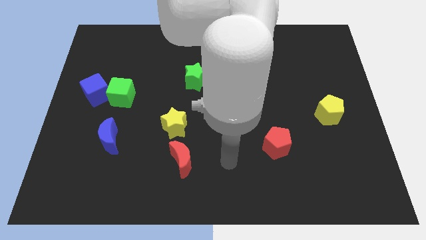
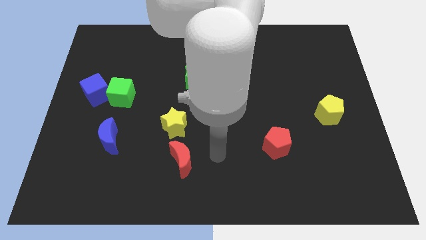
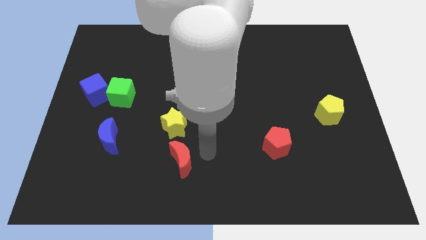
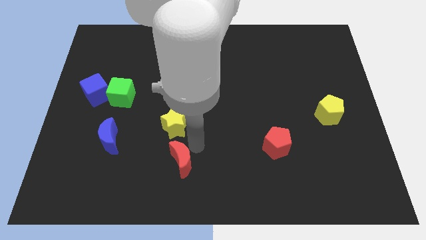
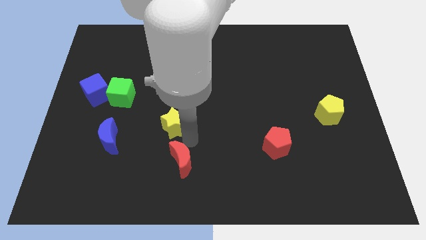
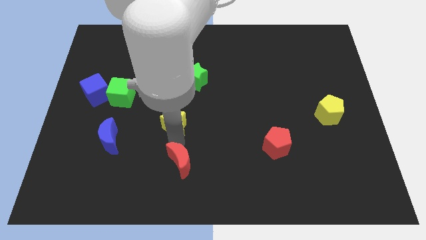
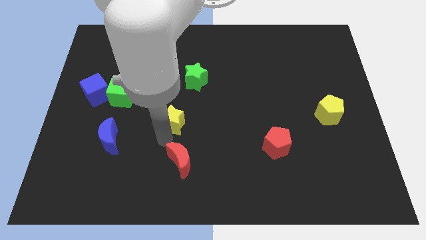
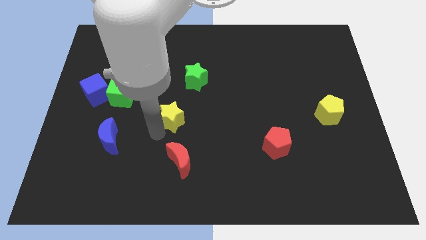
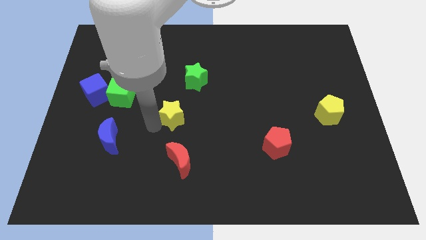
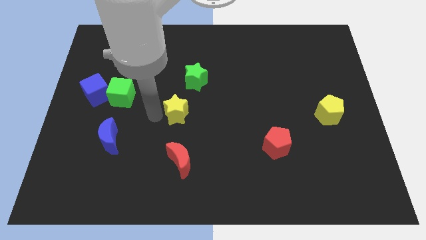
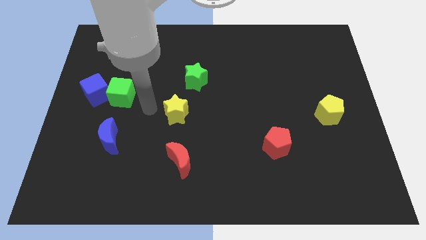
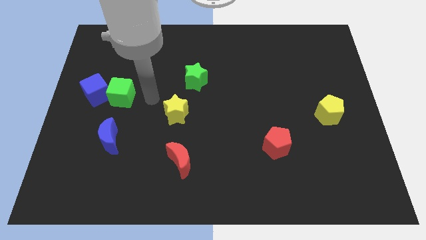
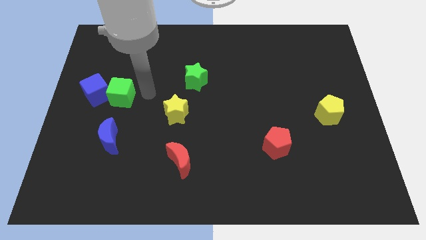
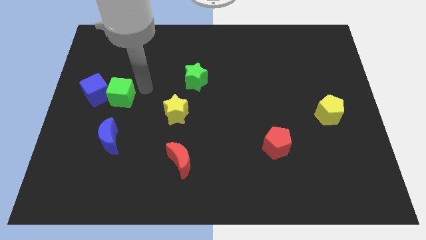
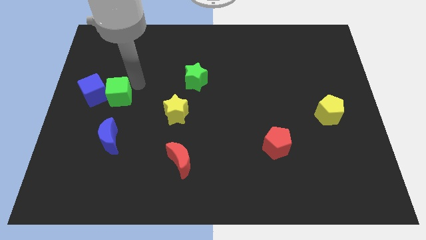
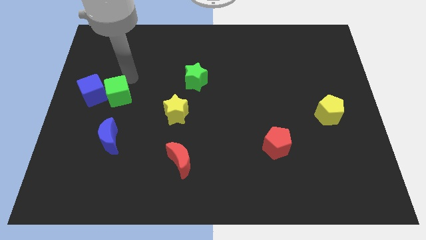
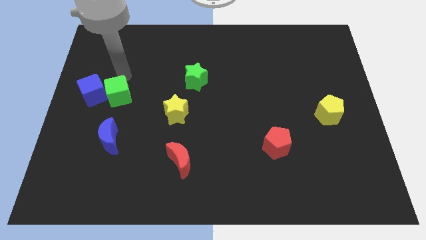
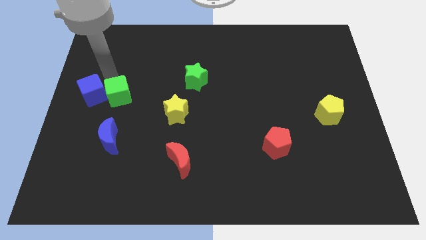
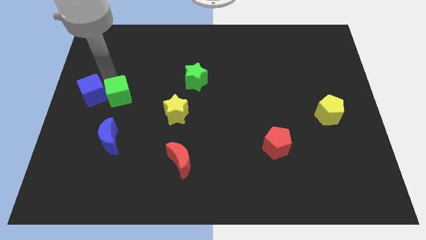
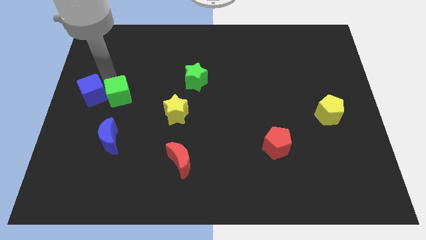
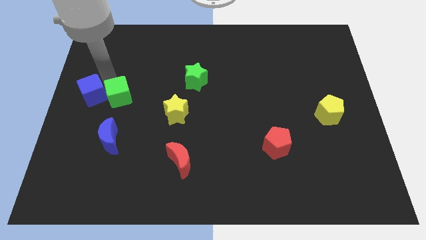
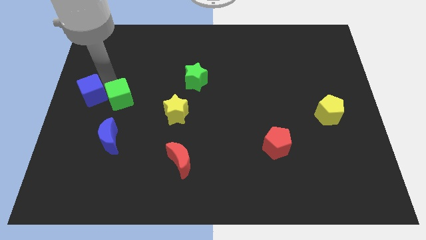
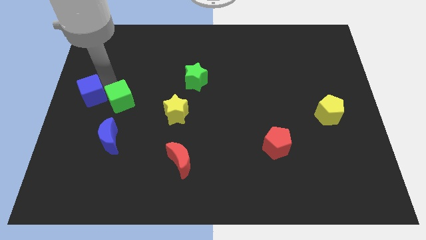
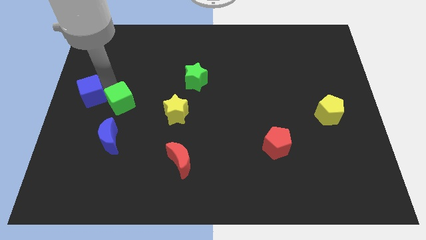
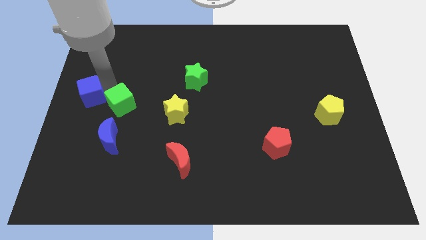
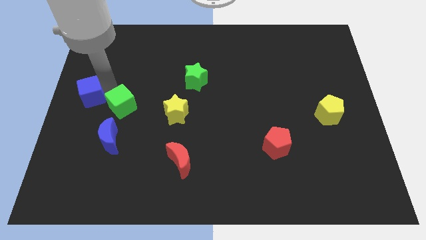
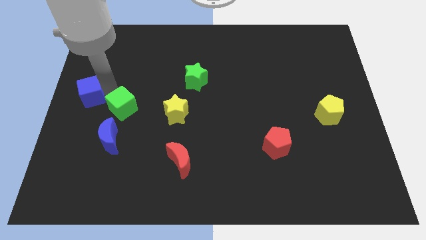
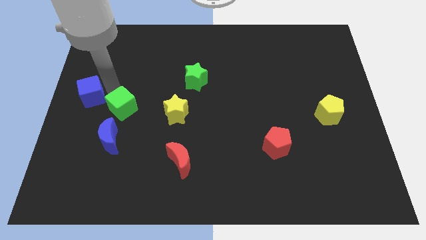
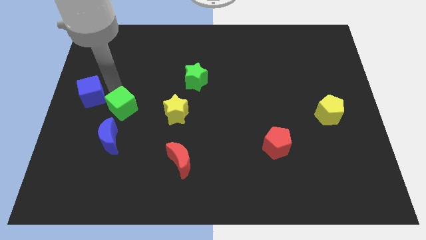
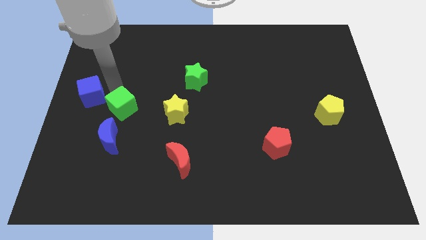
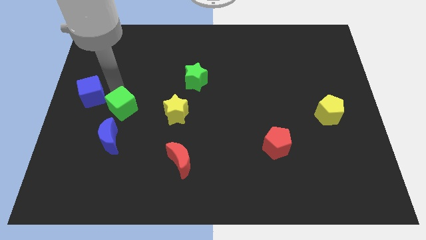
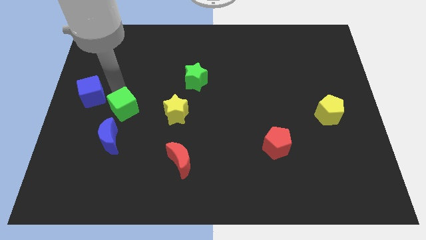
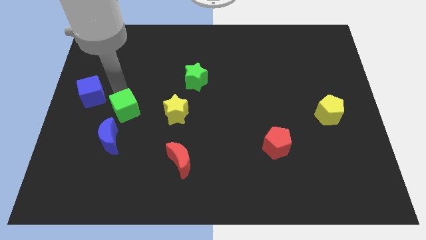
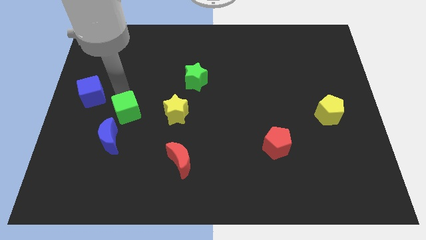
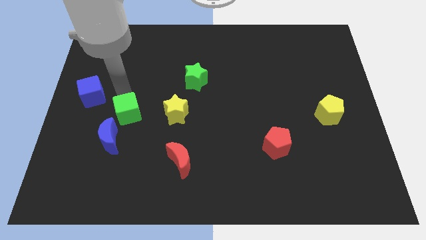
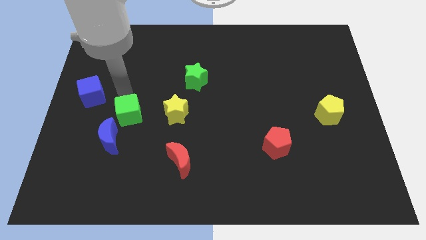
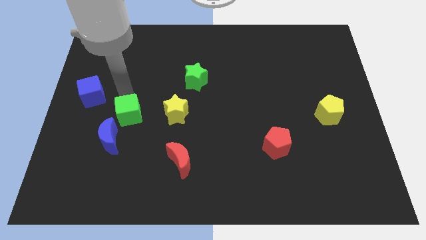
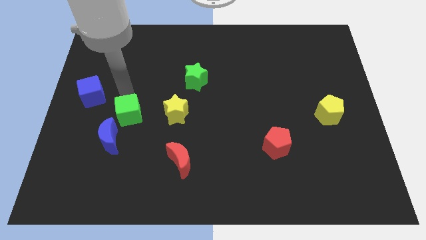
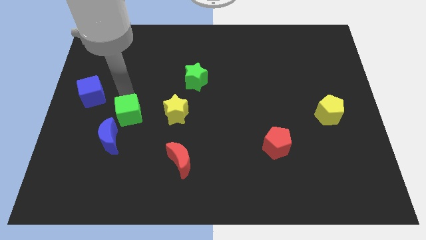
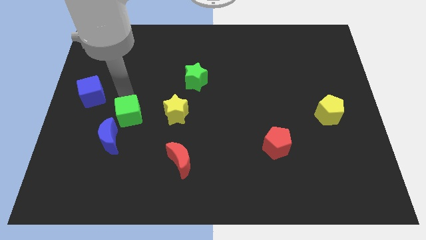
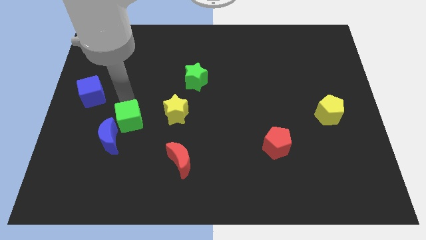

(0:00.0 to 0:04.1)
move the green cube somewhat down

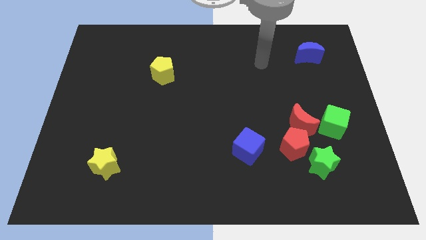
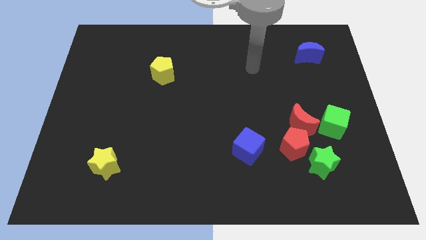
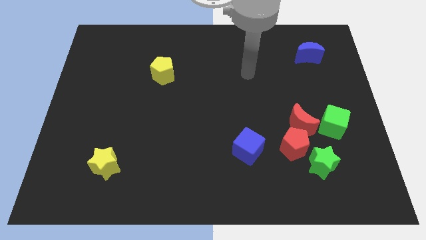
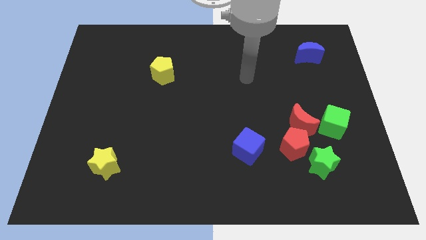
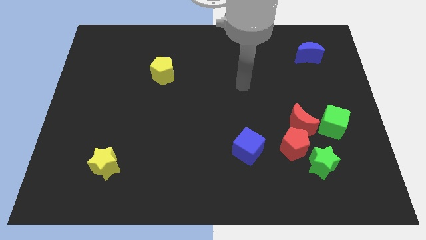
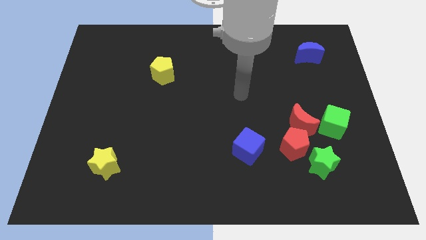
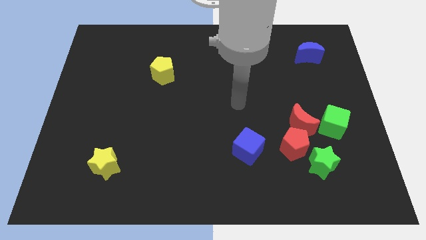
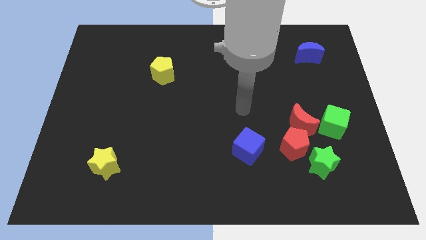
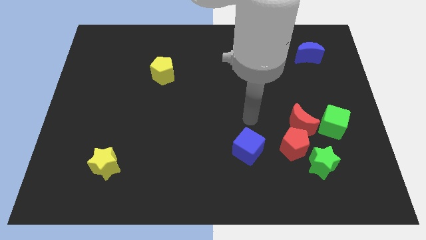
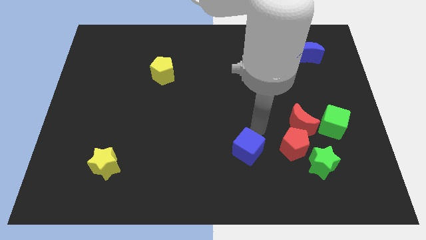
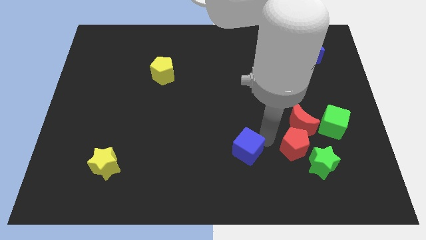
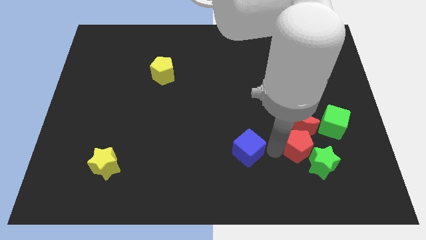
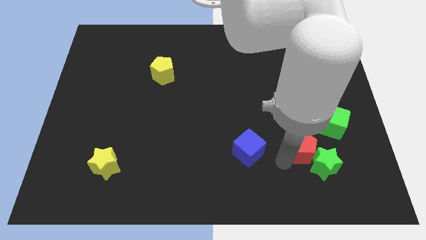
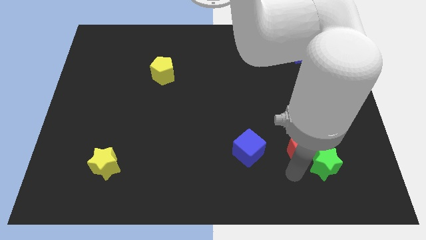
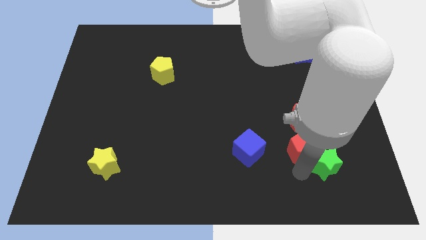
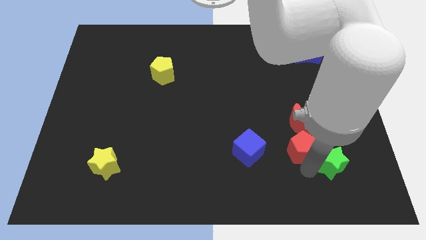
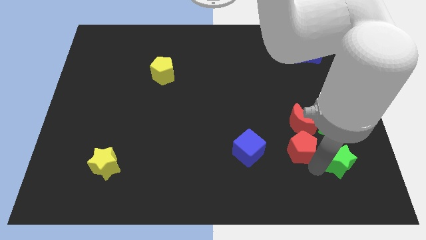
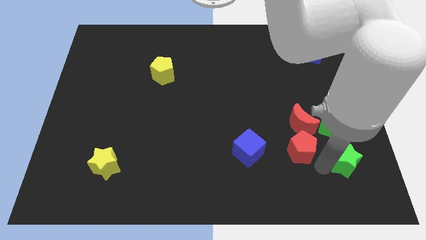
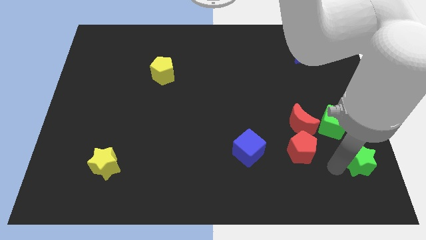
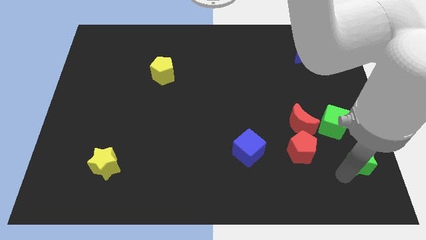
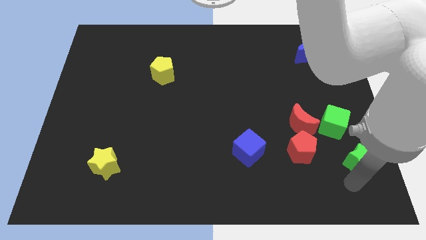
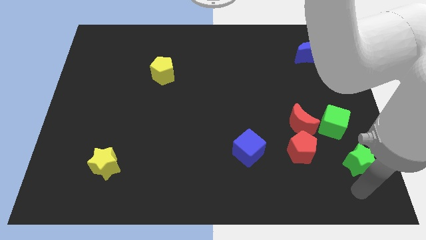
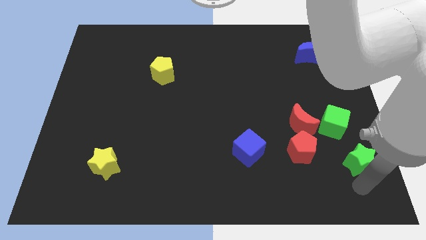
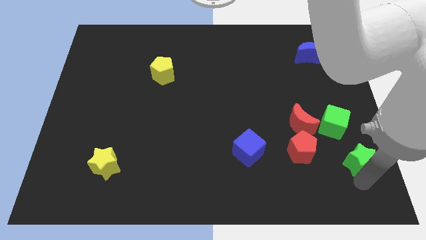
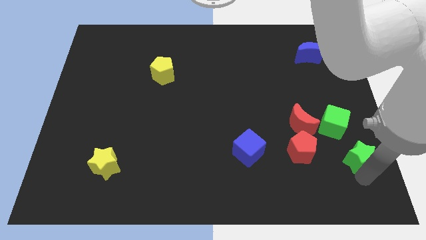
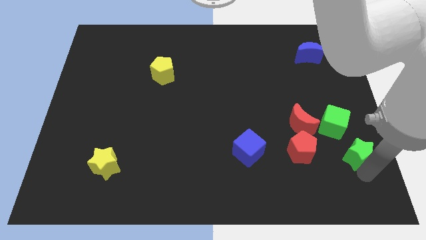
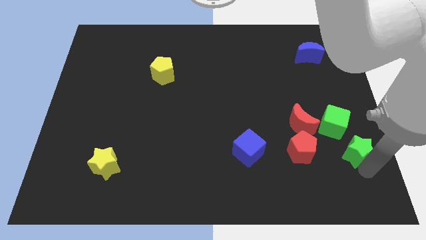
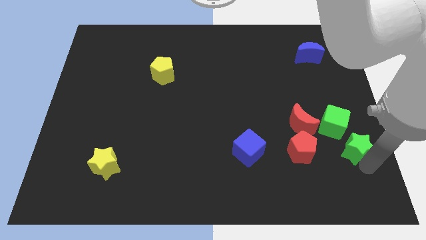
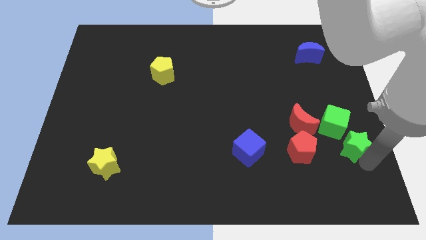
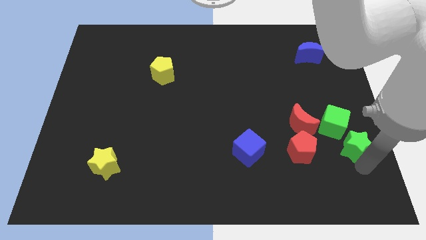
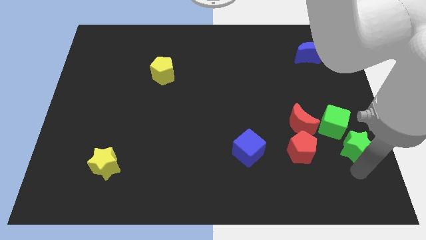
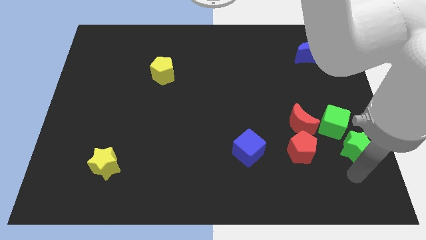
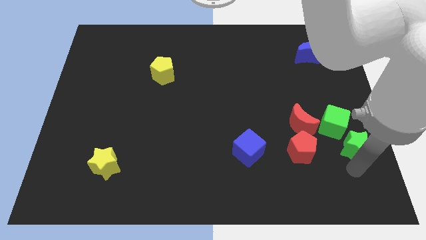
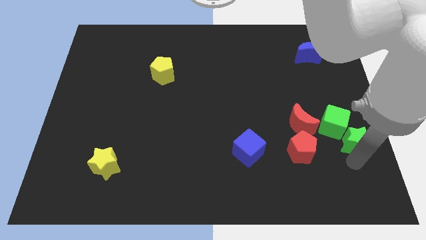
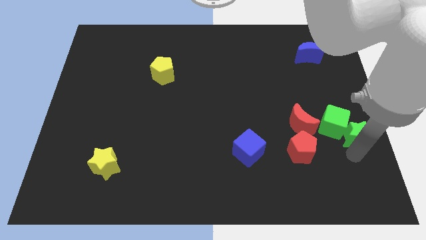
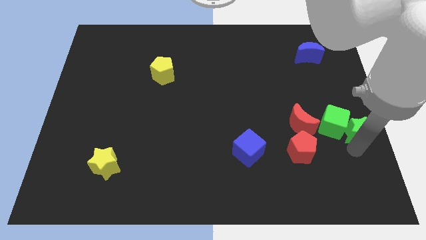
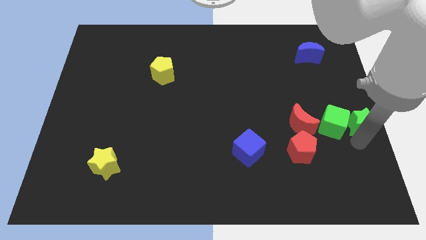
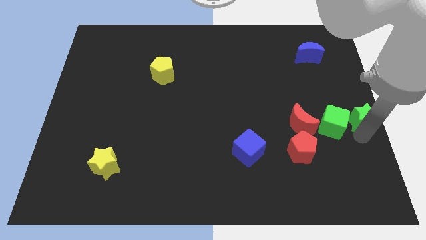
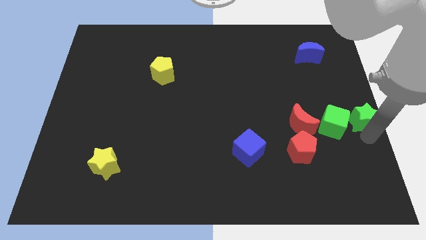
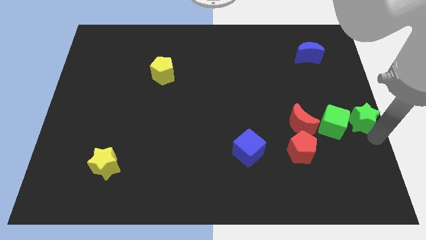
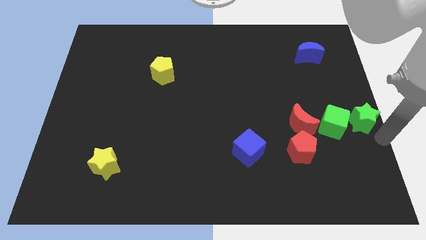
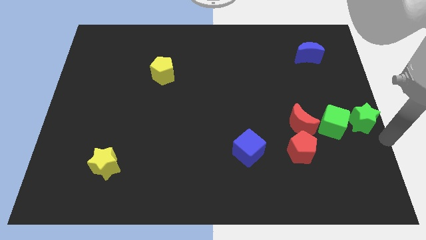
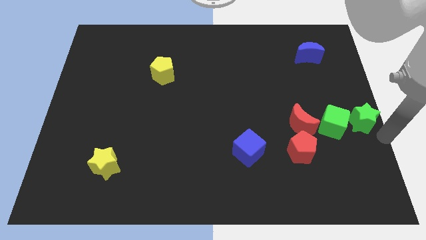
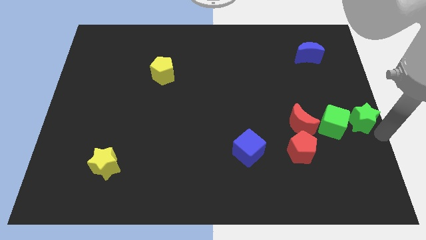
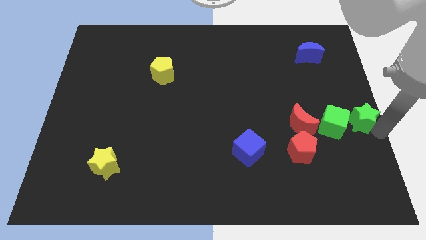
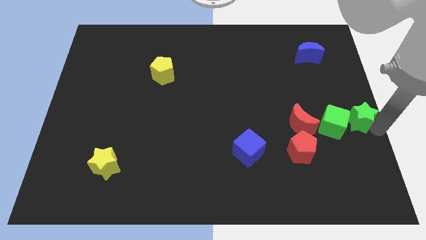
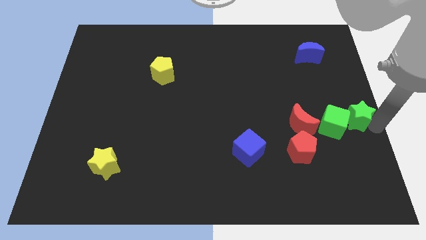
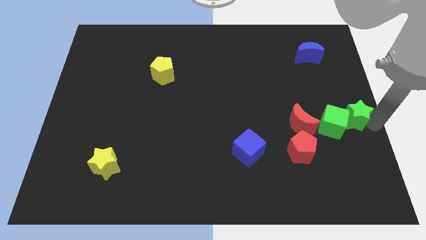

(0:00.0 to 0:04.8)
move the green star a little upwards
